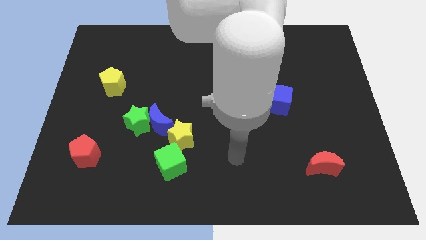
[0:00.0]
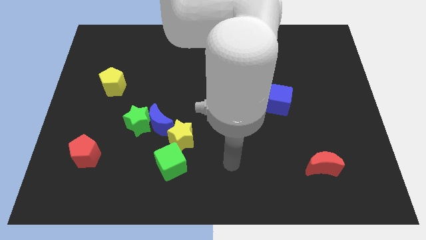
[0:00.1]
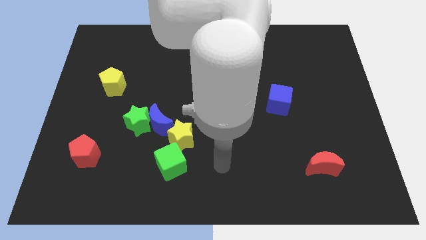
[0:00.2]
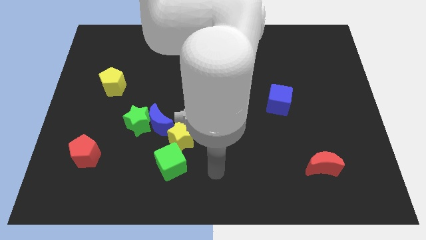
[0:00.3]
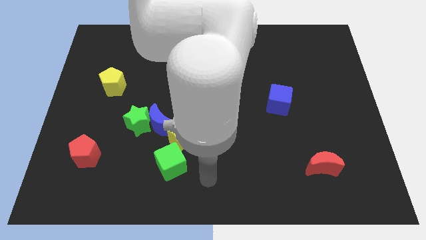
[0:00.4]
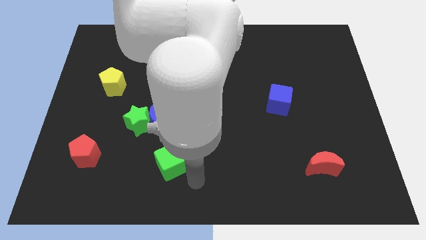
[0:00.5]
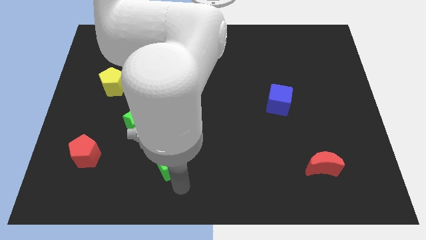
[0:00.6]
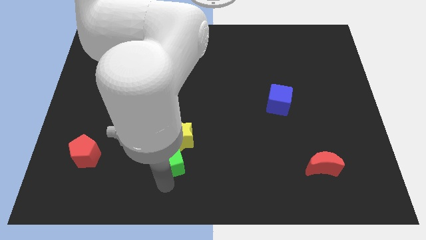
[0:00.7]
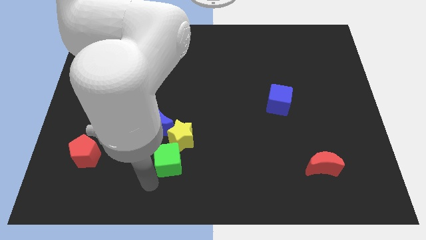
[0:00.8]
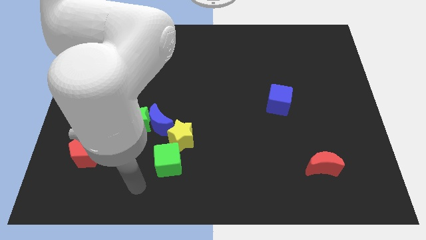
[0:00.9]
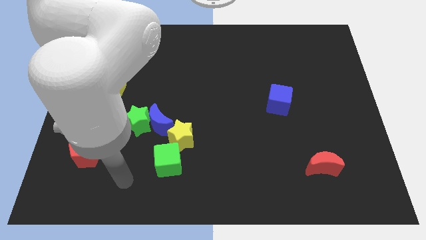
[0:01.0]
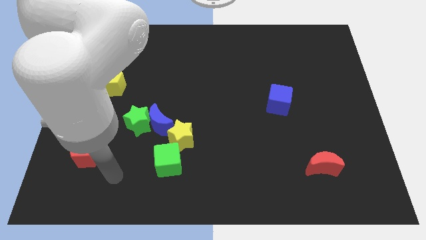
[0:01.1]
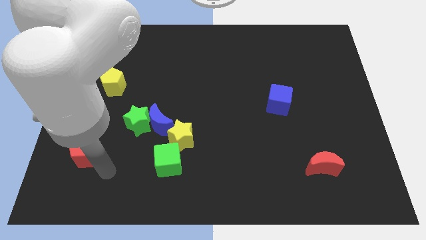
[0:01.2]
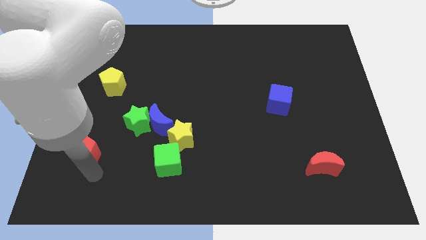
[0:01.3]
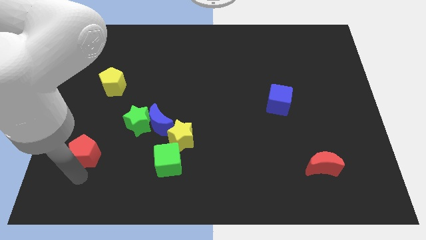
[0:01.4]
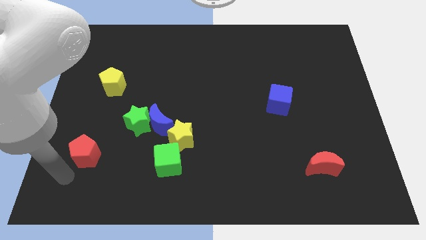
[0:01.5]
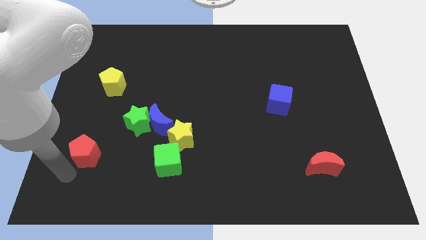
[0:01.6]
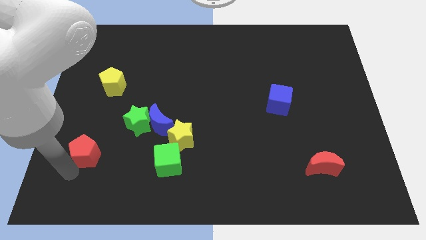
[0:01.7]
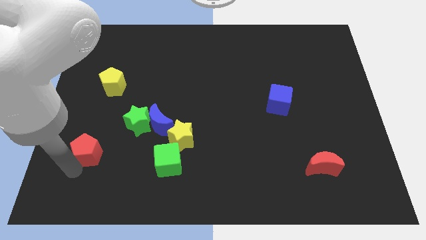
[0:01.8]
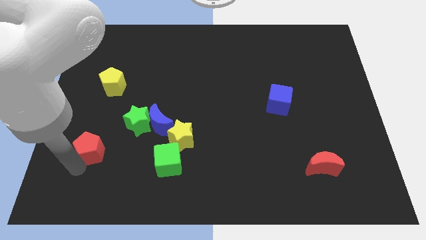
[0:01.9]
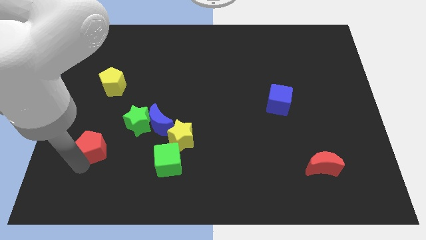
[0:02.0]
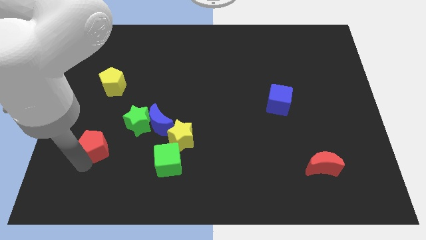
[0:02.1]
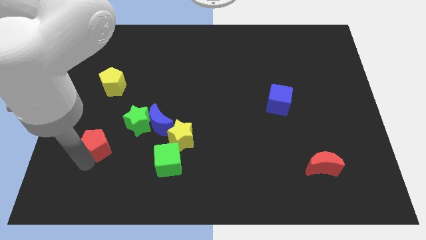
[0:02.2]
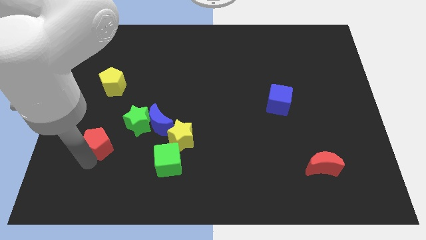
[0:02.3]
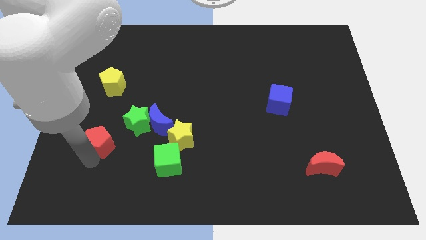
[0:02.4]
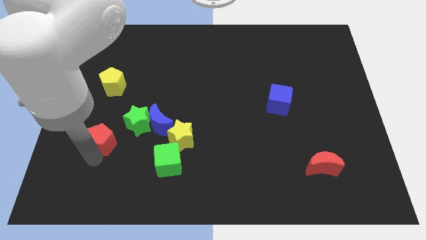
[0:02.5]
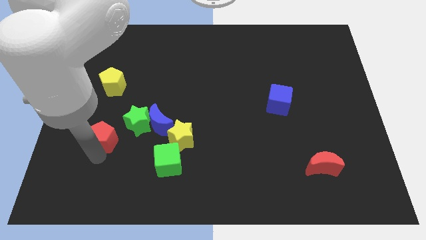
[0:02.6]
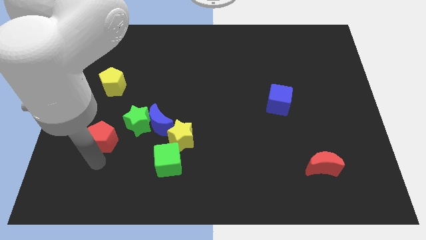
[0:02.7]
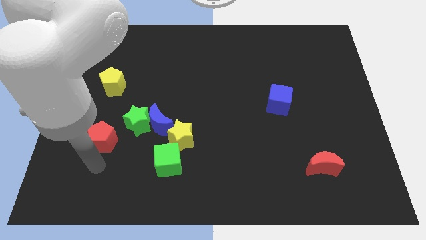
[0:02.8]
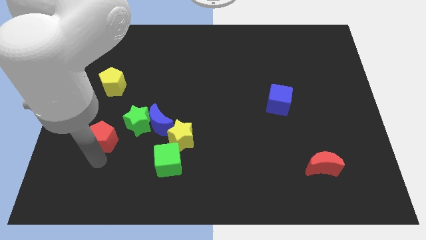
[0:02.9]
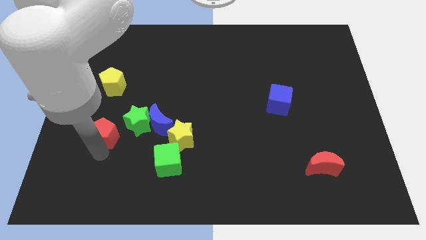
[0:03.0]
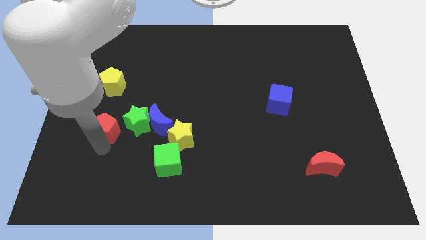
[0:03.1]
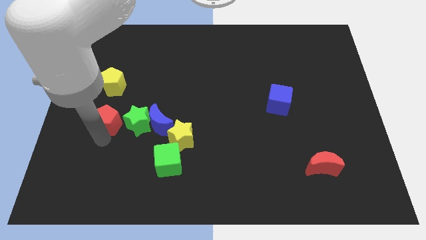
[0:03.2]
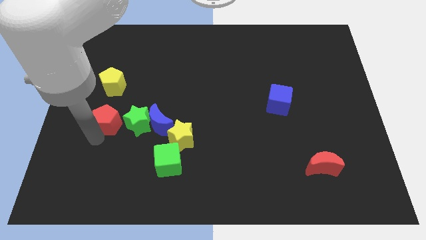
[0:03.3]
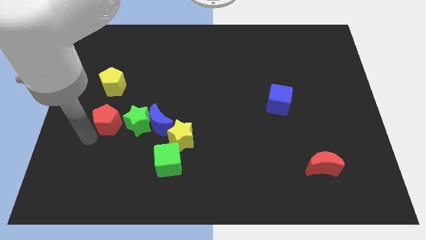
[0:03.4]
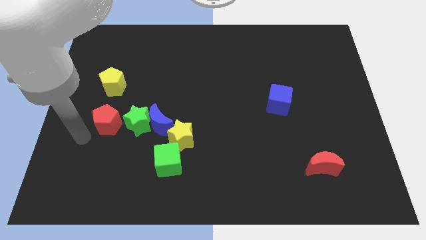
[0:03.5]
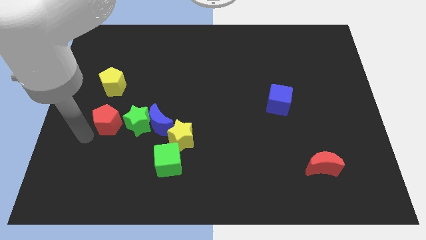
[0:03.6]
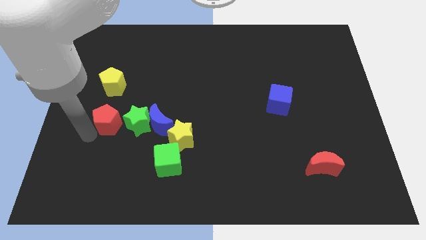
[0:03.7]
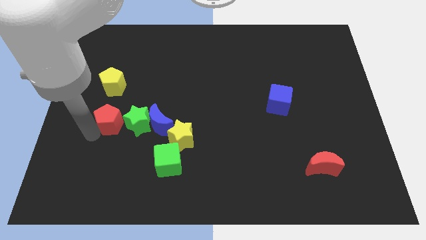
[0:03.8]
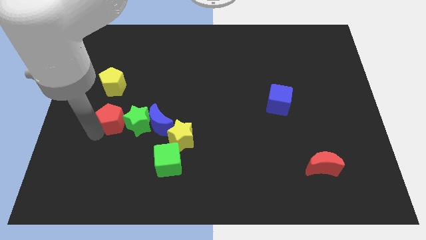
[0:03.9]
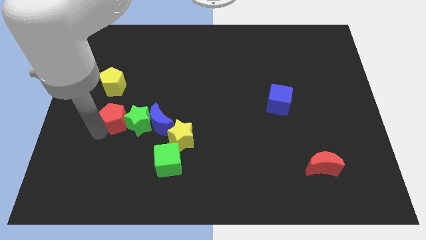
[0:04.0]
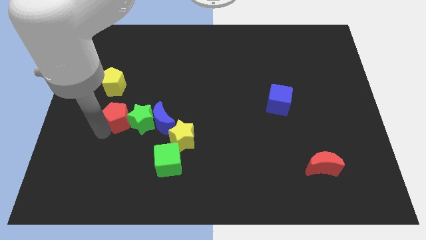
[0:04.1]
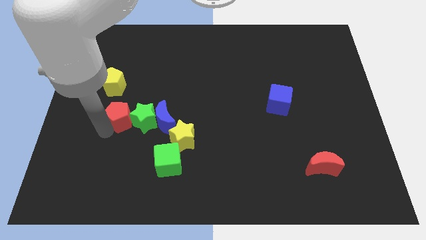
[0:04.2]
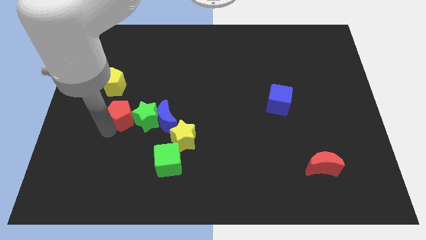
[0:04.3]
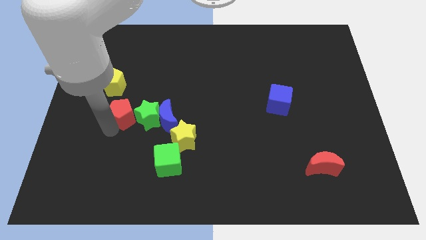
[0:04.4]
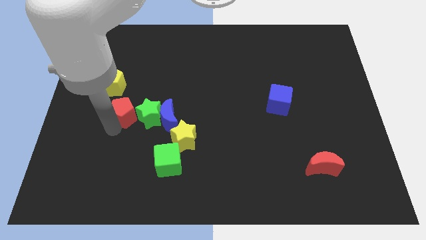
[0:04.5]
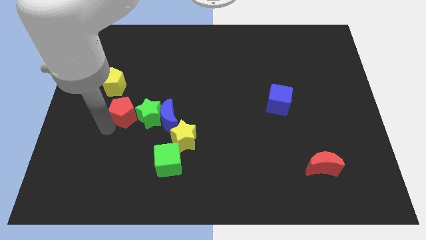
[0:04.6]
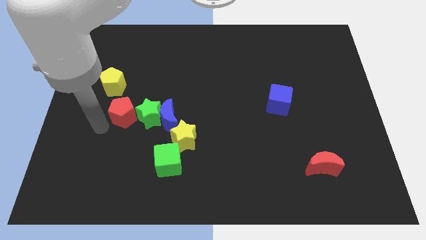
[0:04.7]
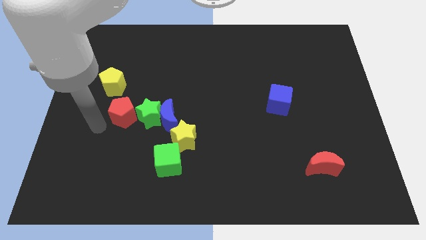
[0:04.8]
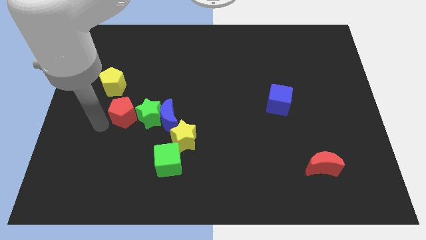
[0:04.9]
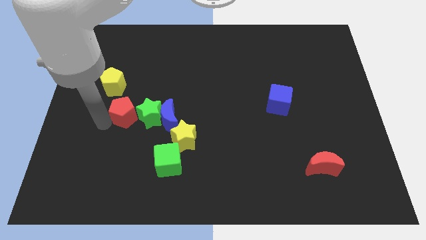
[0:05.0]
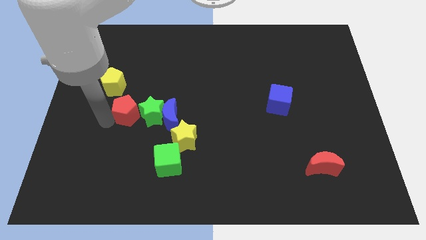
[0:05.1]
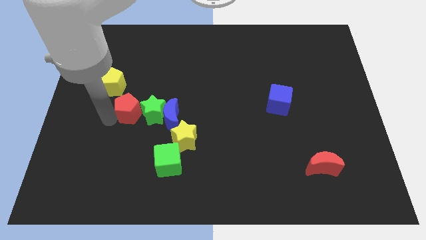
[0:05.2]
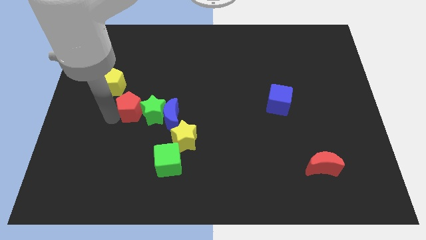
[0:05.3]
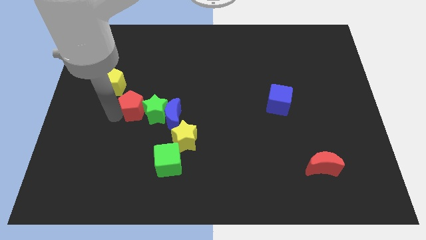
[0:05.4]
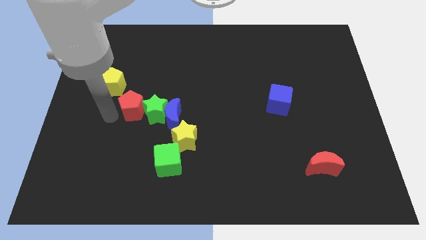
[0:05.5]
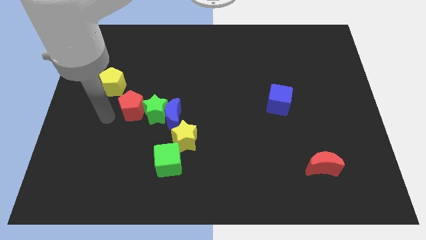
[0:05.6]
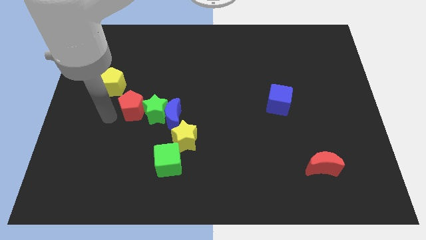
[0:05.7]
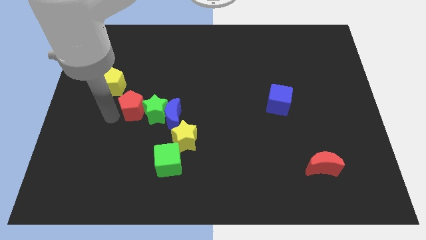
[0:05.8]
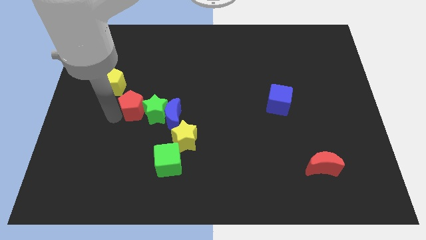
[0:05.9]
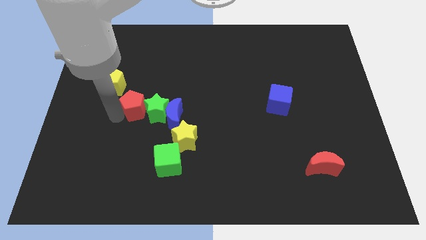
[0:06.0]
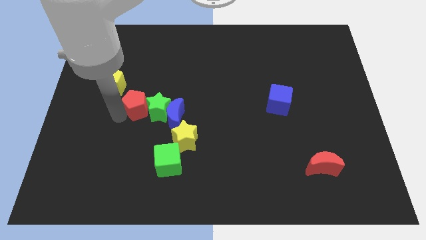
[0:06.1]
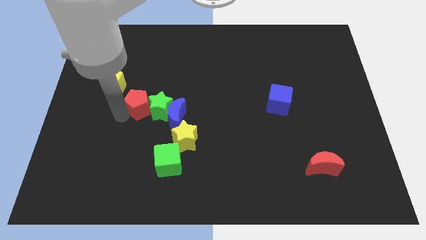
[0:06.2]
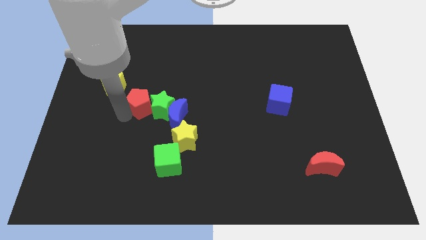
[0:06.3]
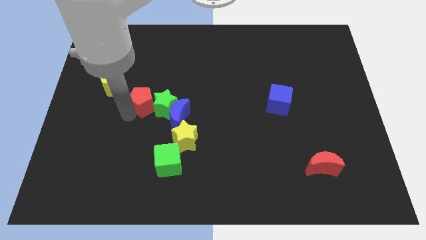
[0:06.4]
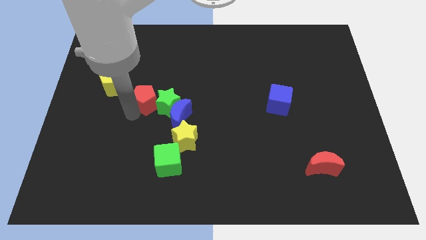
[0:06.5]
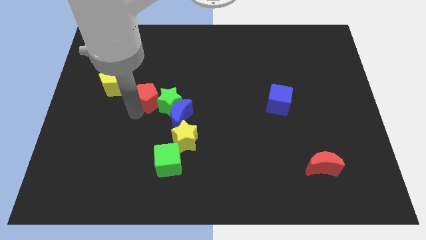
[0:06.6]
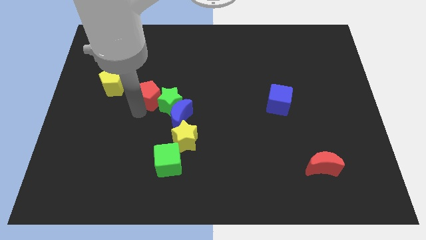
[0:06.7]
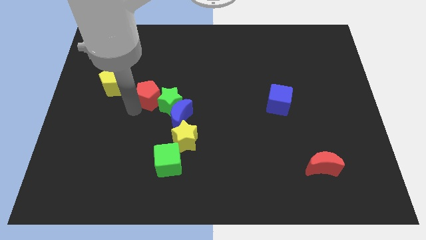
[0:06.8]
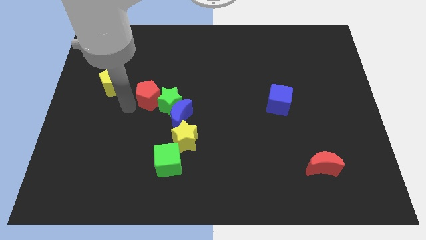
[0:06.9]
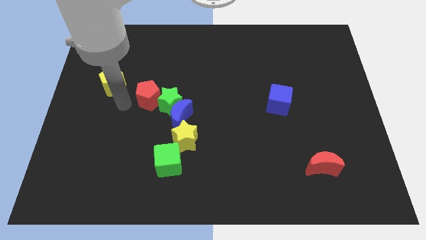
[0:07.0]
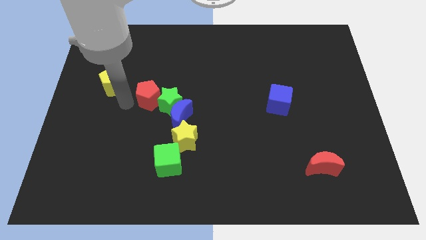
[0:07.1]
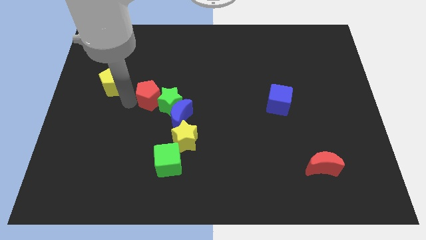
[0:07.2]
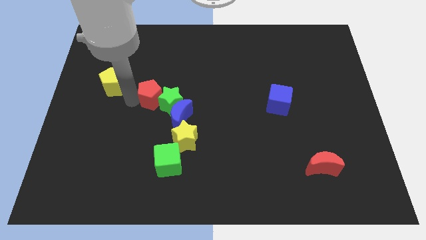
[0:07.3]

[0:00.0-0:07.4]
slide the red pentagon upwards and then to the right

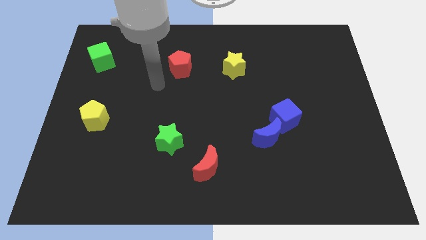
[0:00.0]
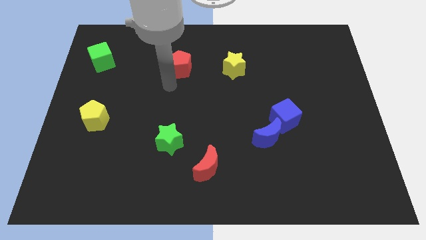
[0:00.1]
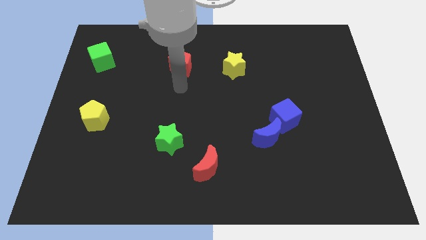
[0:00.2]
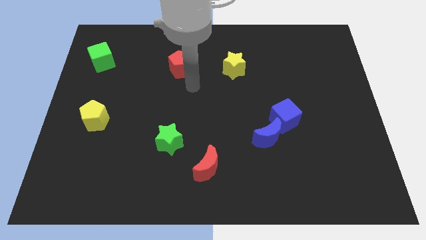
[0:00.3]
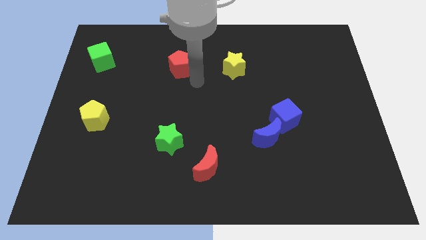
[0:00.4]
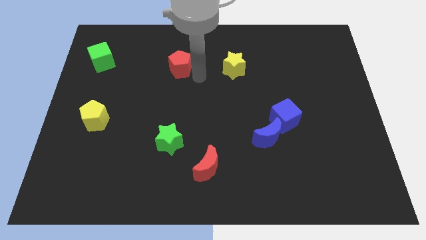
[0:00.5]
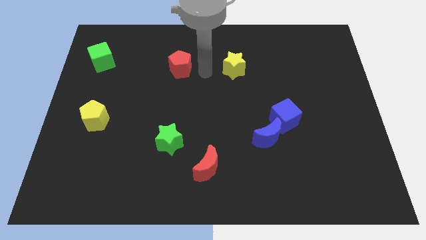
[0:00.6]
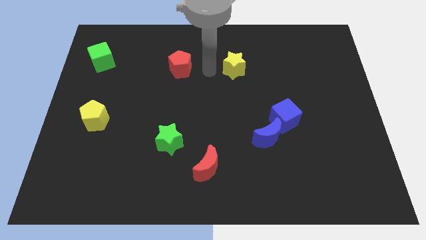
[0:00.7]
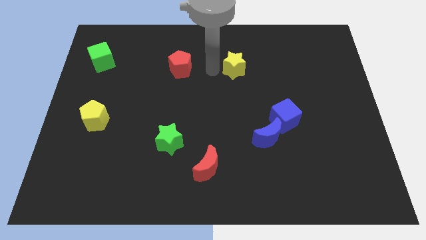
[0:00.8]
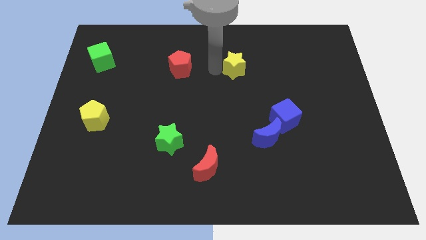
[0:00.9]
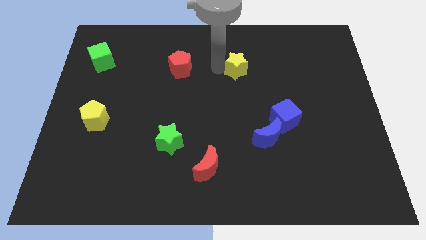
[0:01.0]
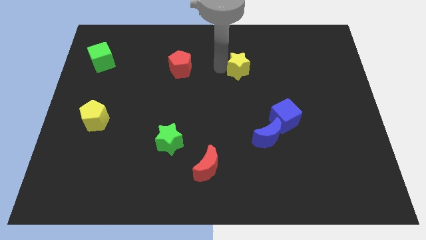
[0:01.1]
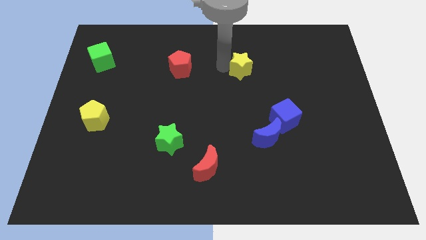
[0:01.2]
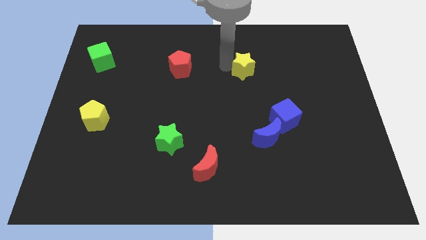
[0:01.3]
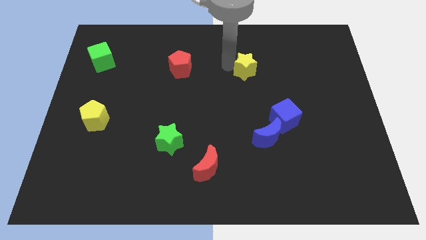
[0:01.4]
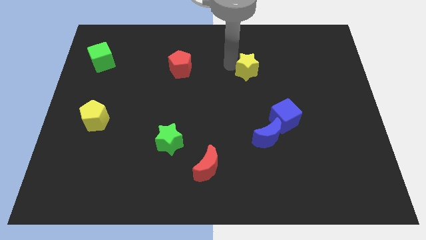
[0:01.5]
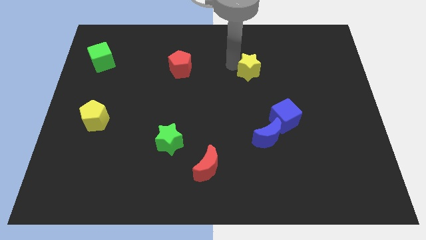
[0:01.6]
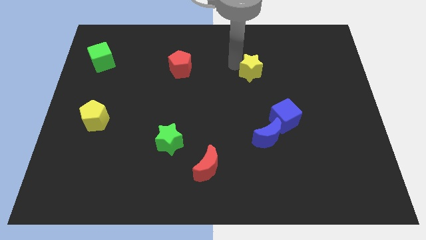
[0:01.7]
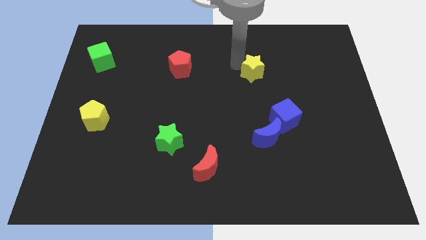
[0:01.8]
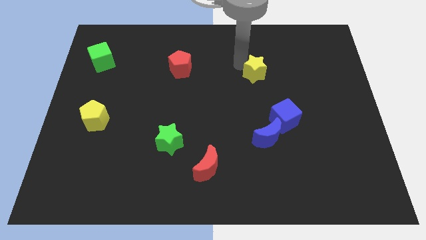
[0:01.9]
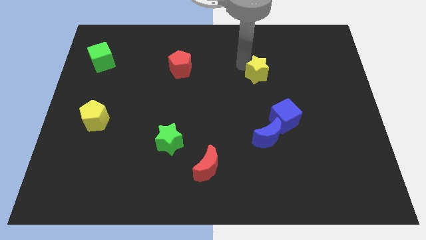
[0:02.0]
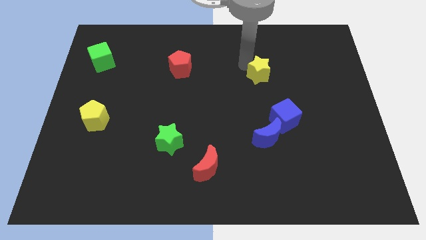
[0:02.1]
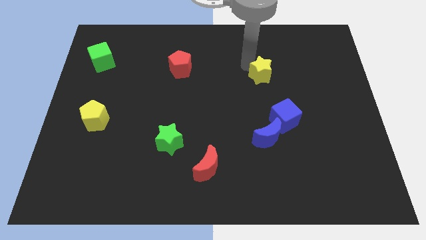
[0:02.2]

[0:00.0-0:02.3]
slightly slide the yellow star right
